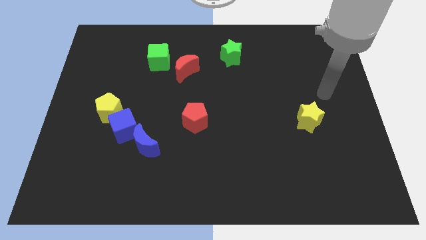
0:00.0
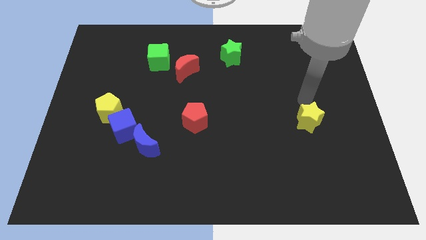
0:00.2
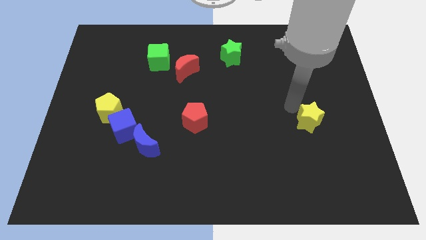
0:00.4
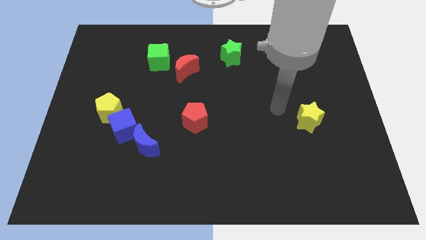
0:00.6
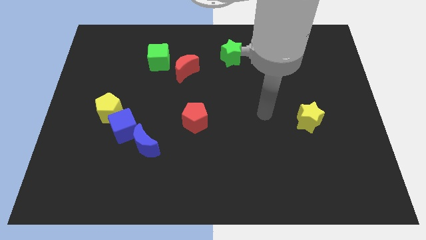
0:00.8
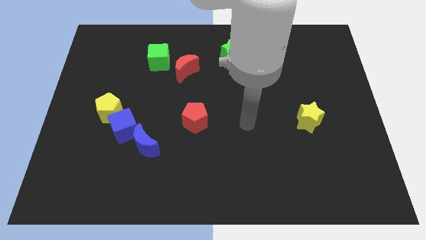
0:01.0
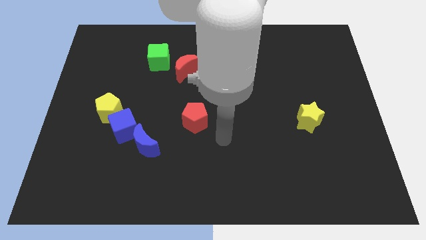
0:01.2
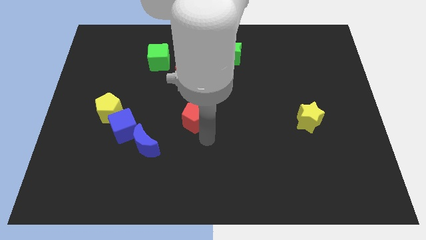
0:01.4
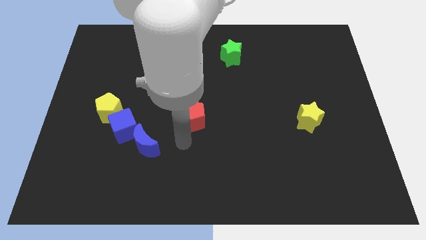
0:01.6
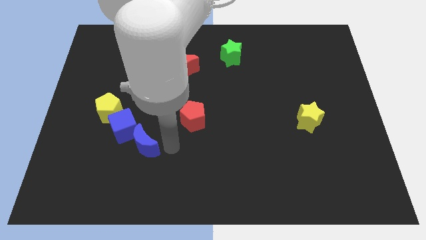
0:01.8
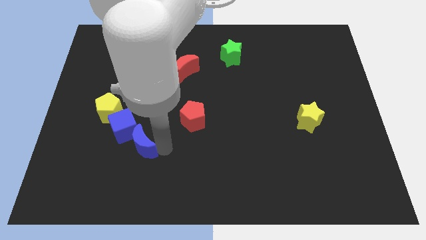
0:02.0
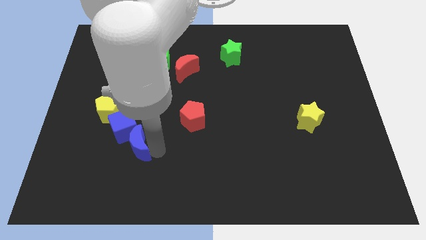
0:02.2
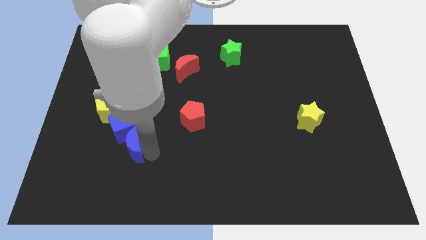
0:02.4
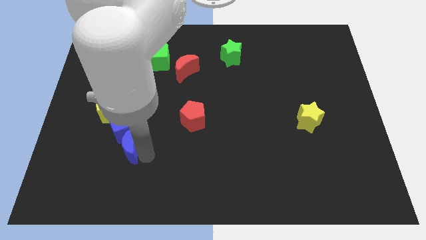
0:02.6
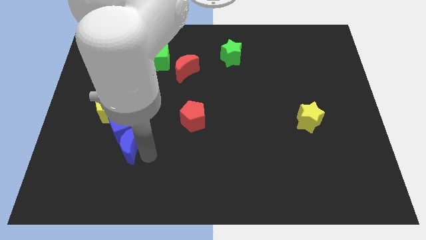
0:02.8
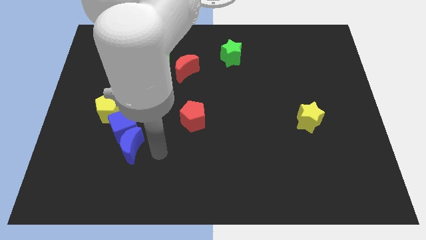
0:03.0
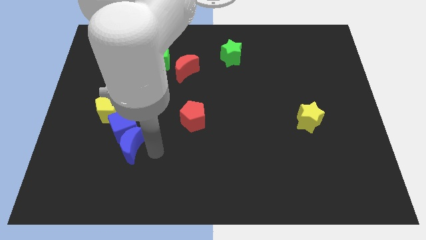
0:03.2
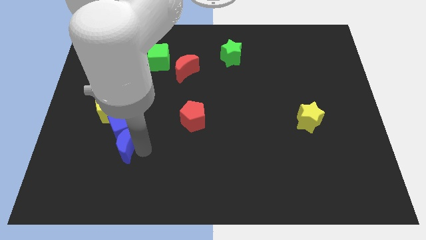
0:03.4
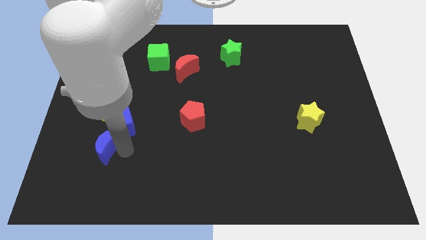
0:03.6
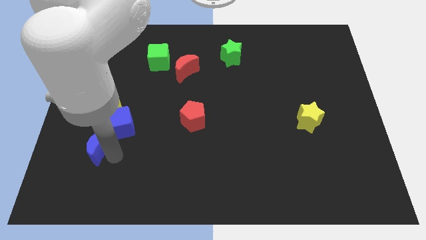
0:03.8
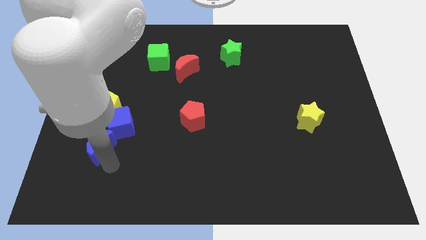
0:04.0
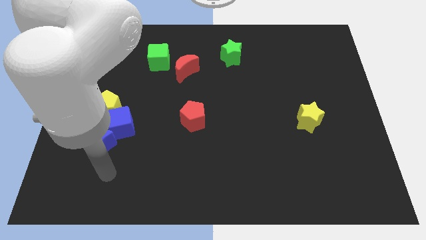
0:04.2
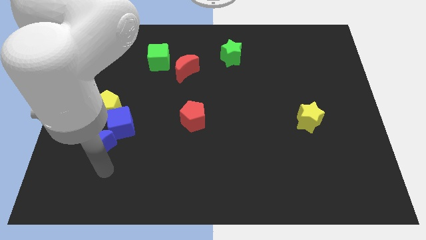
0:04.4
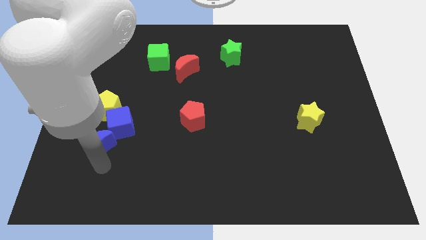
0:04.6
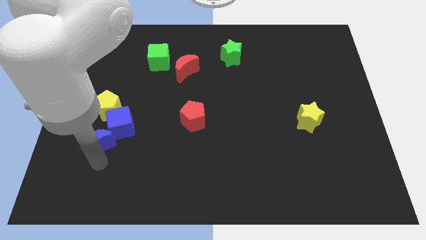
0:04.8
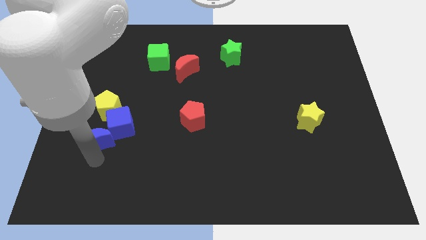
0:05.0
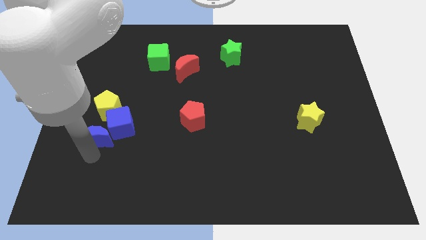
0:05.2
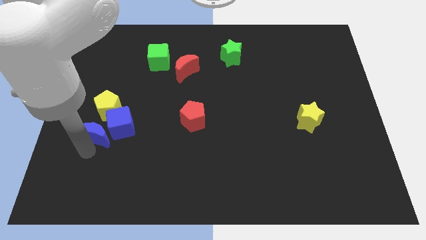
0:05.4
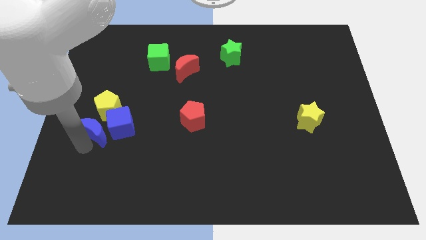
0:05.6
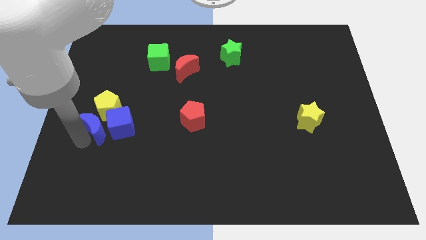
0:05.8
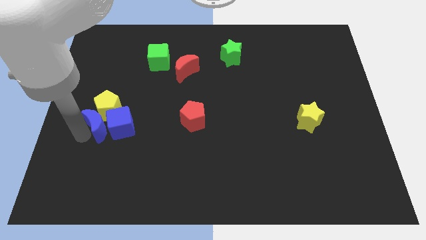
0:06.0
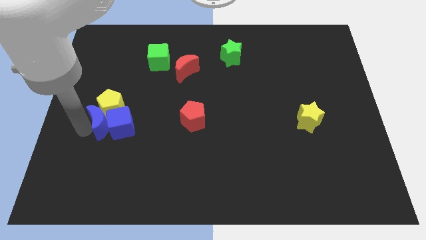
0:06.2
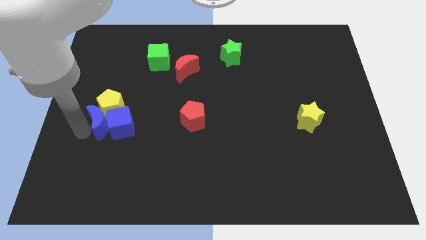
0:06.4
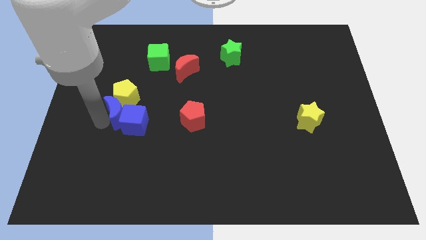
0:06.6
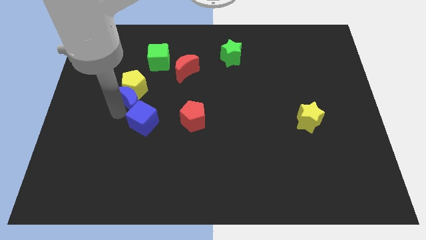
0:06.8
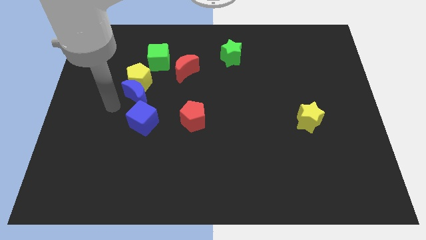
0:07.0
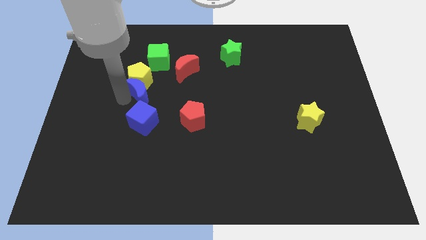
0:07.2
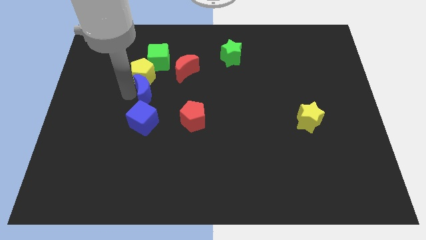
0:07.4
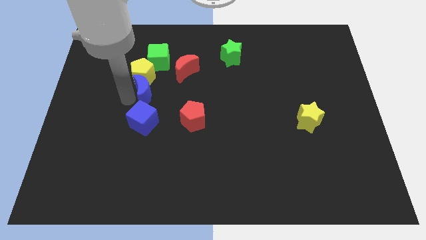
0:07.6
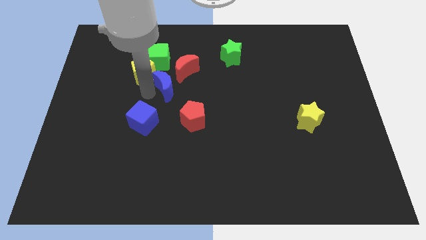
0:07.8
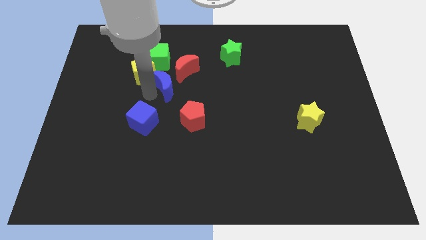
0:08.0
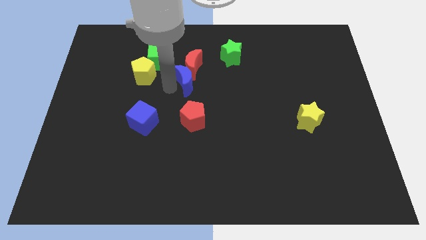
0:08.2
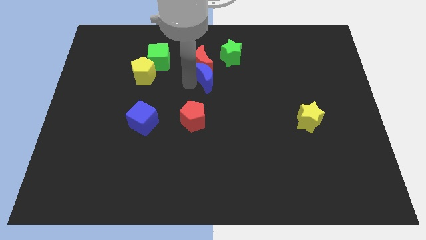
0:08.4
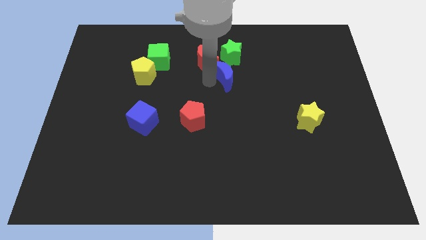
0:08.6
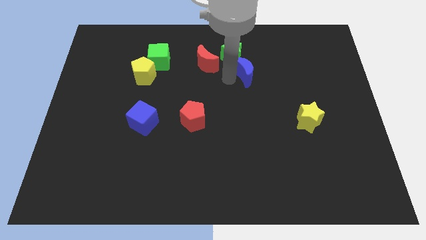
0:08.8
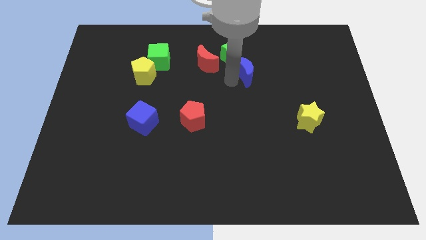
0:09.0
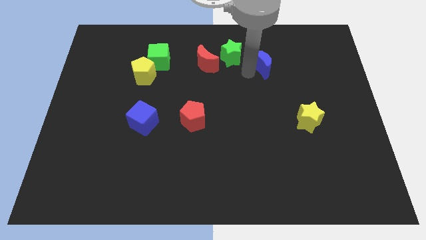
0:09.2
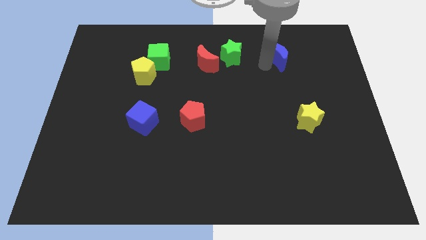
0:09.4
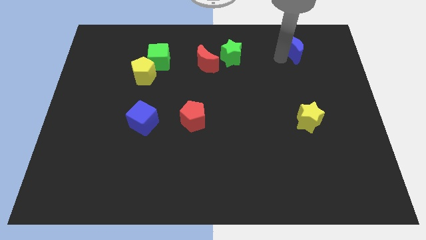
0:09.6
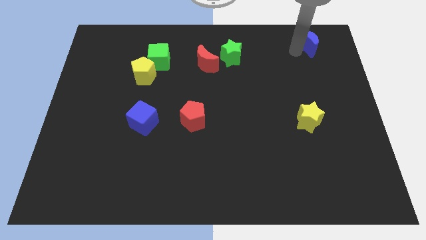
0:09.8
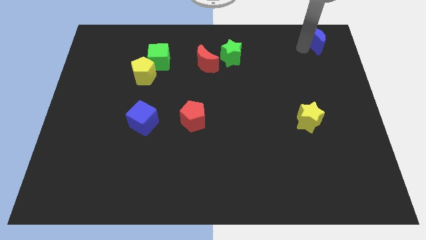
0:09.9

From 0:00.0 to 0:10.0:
slide the blue moon to the upper right corner

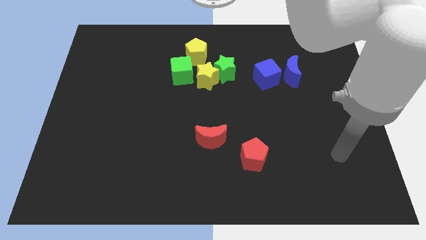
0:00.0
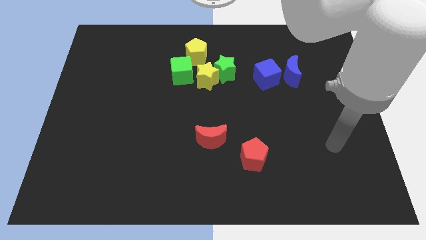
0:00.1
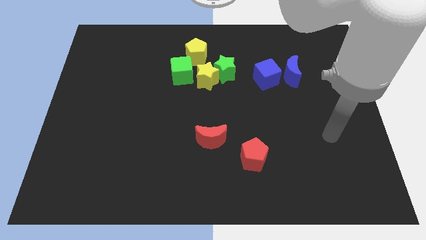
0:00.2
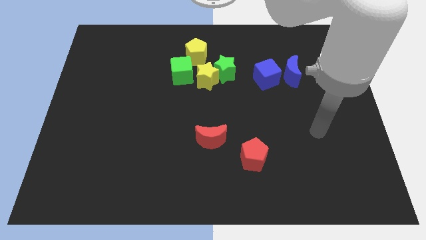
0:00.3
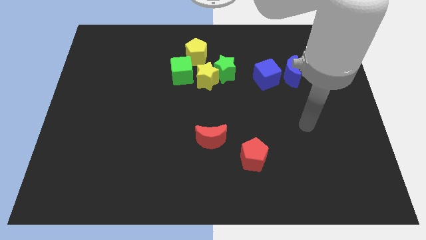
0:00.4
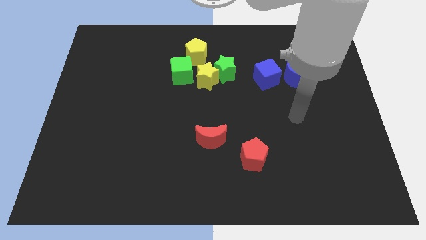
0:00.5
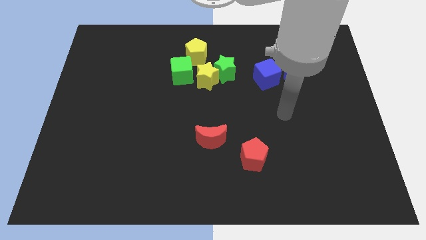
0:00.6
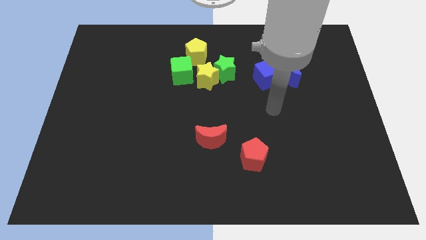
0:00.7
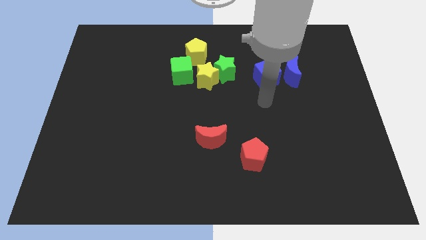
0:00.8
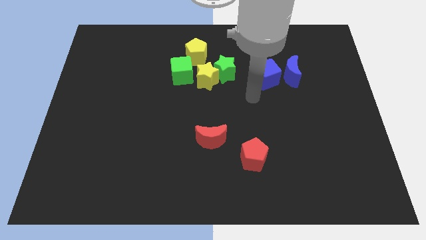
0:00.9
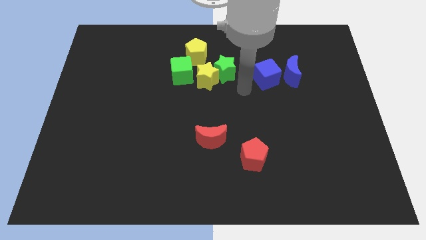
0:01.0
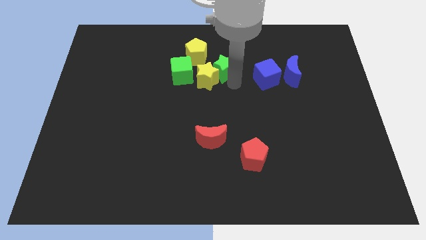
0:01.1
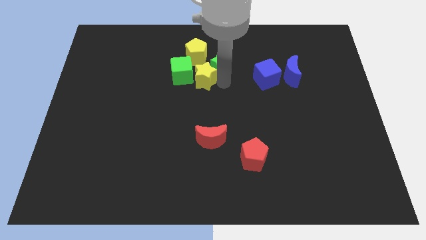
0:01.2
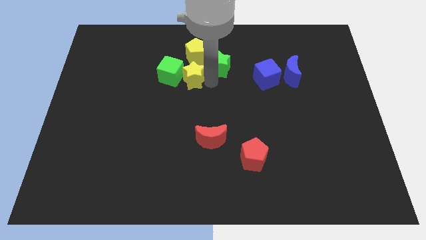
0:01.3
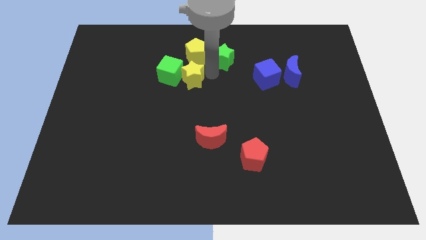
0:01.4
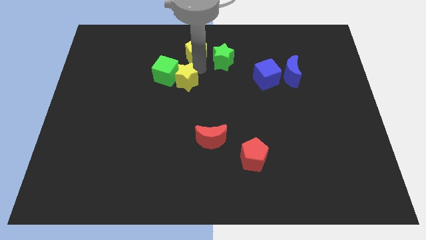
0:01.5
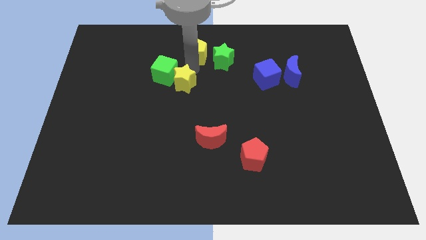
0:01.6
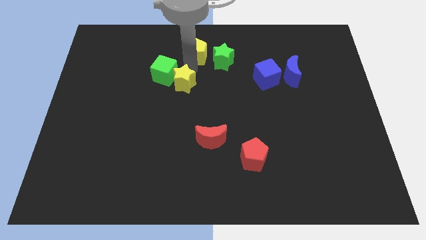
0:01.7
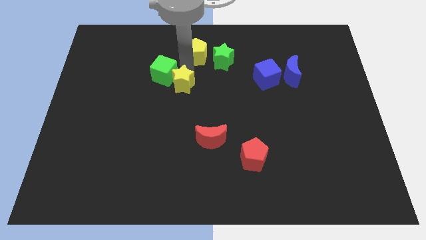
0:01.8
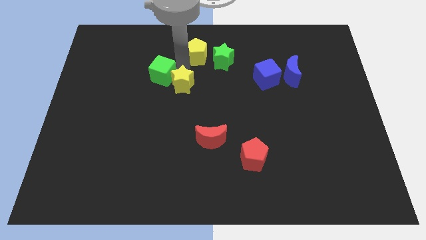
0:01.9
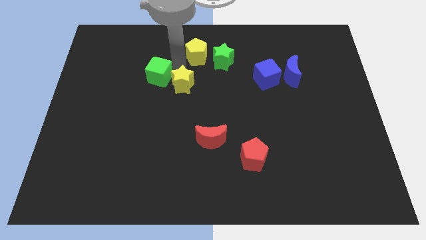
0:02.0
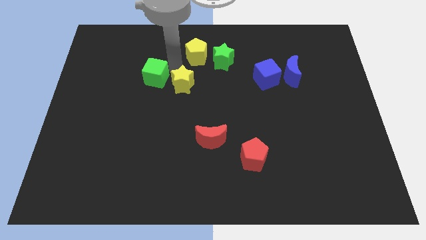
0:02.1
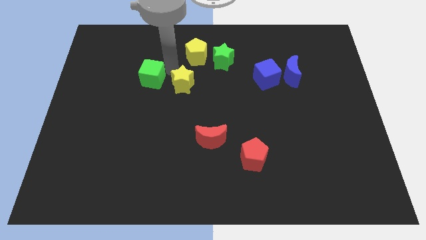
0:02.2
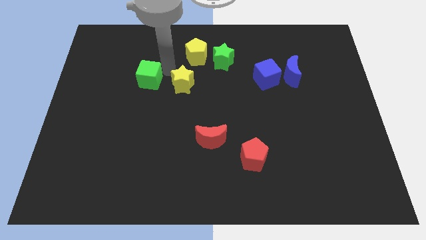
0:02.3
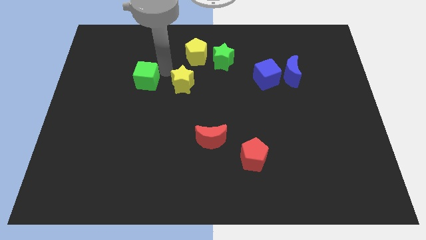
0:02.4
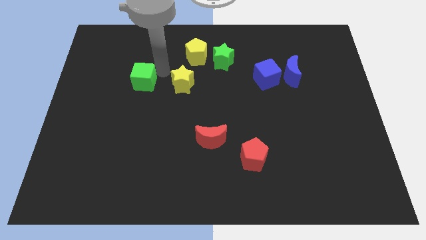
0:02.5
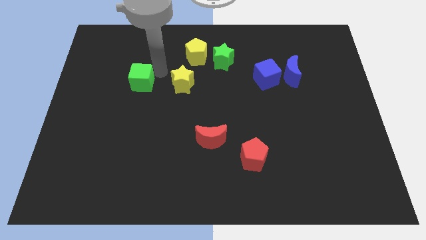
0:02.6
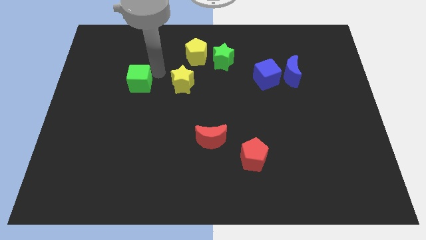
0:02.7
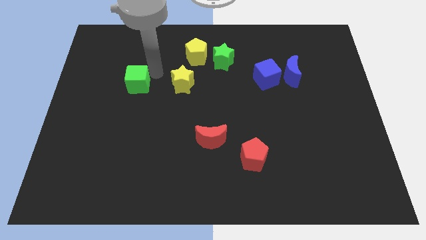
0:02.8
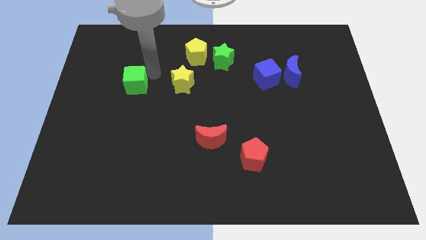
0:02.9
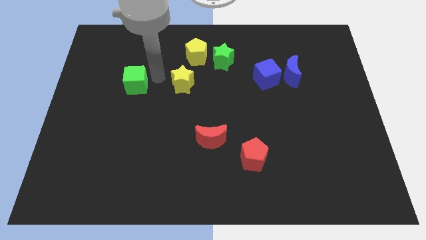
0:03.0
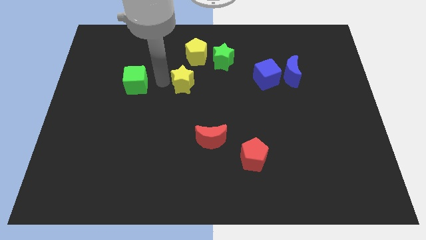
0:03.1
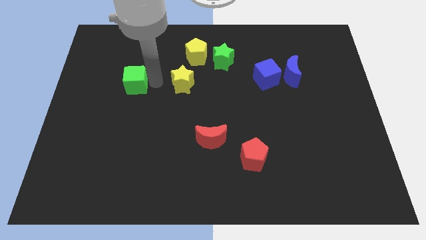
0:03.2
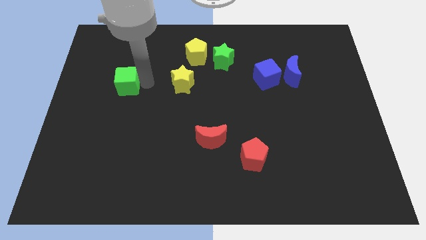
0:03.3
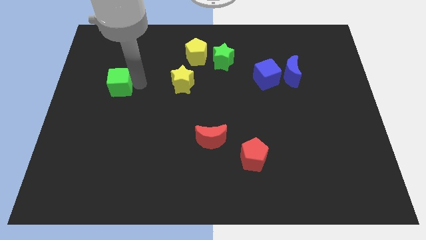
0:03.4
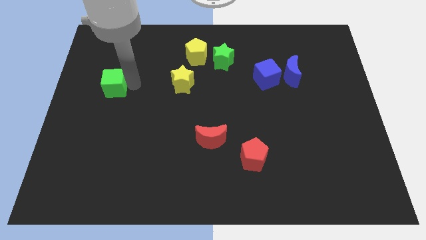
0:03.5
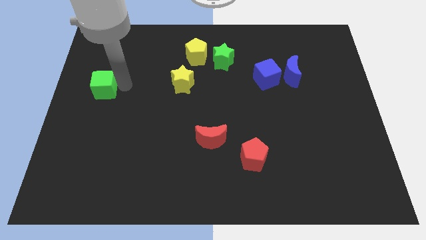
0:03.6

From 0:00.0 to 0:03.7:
slide the green cube to the left side of the board
